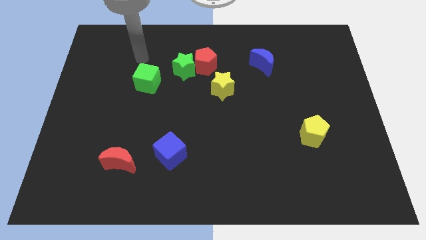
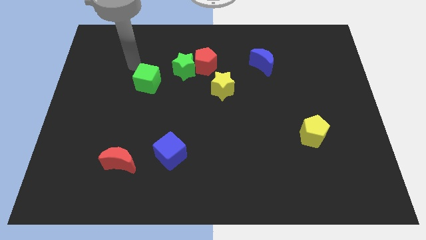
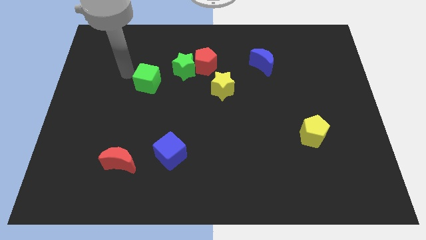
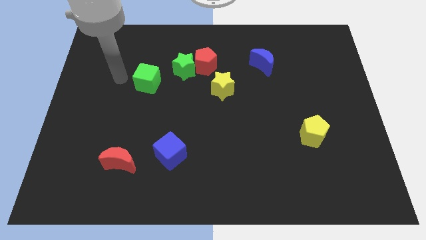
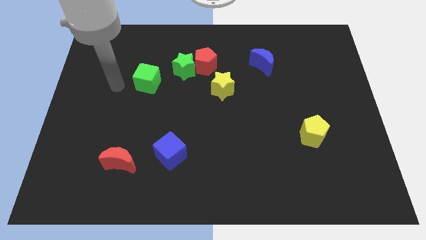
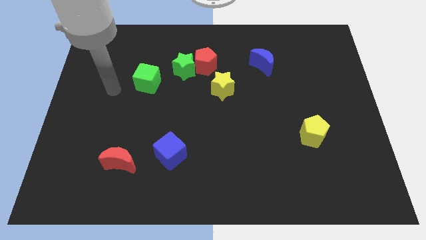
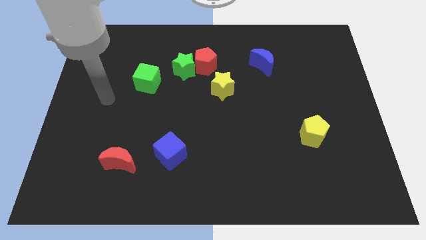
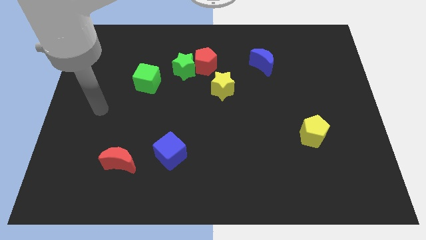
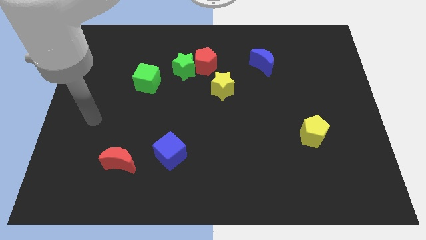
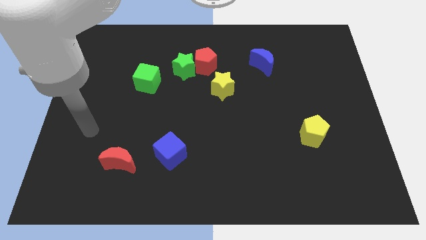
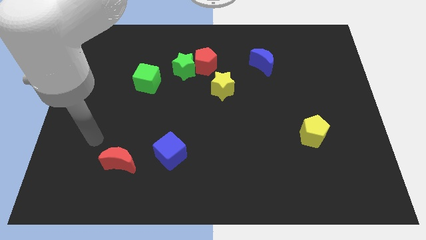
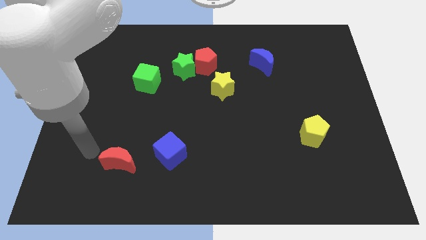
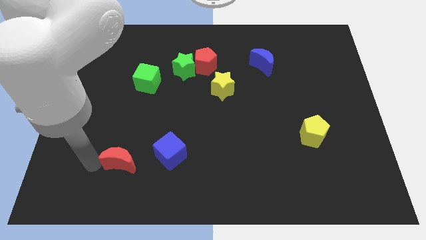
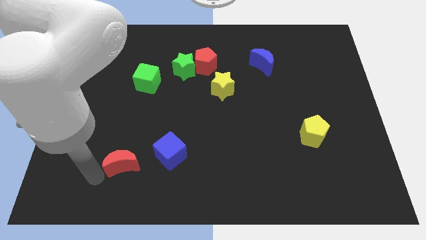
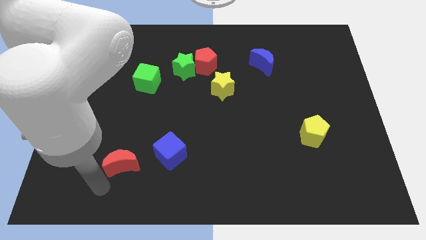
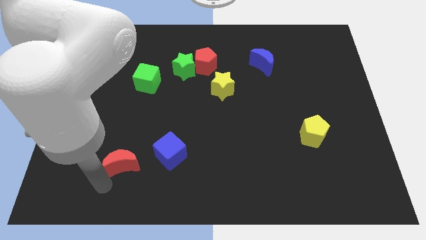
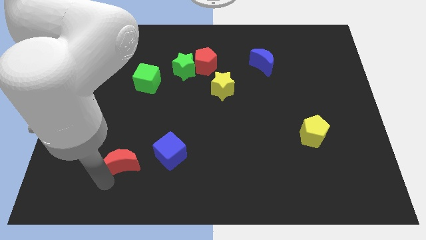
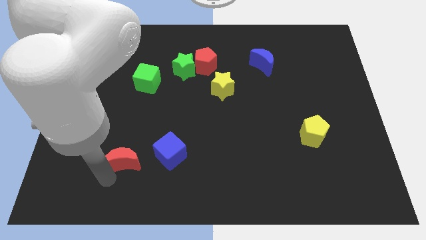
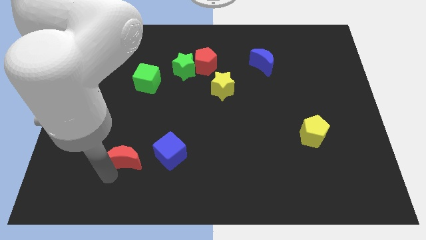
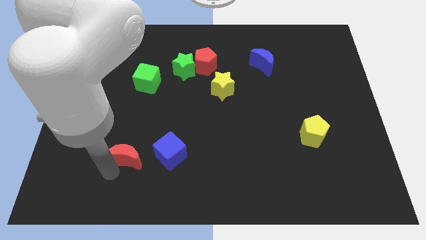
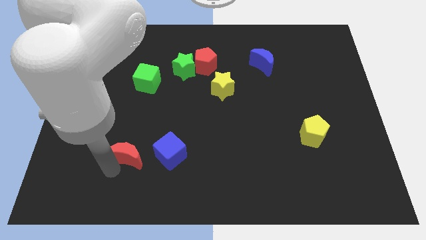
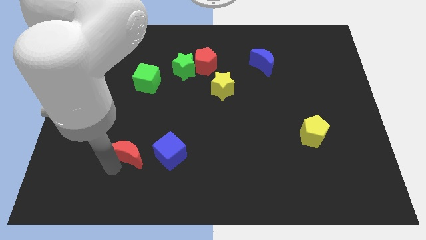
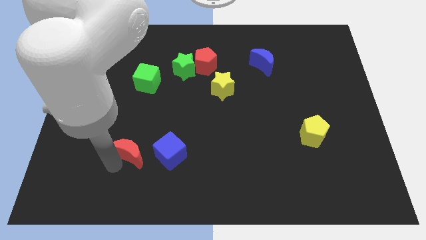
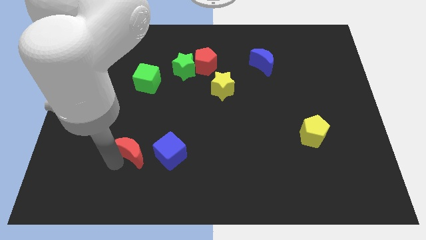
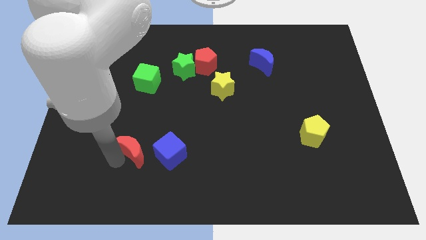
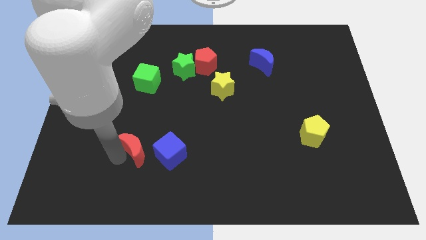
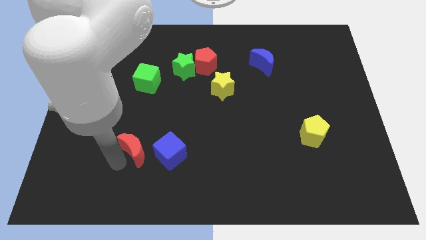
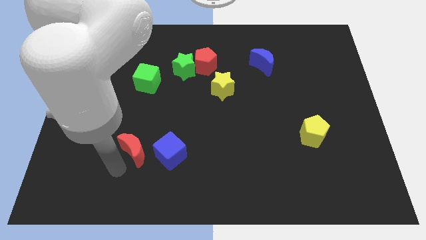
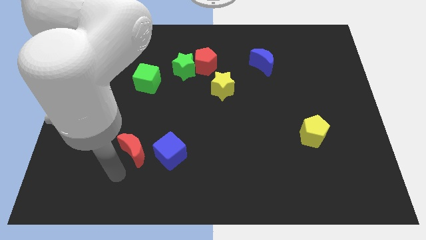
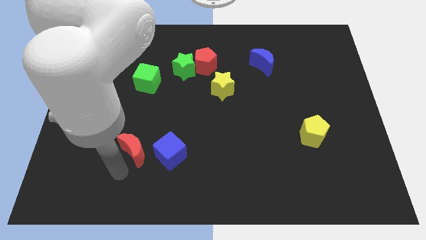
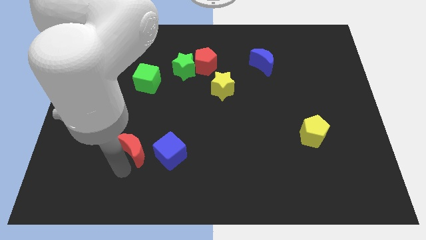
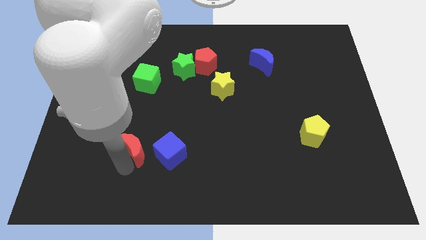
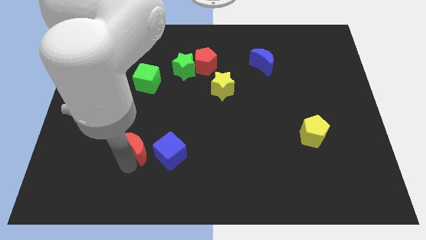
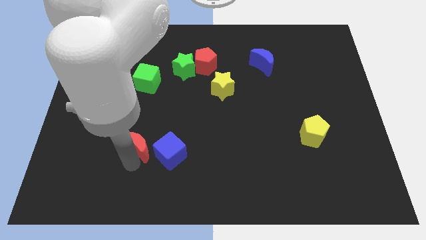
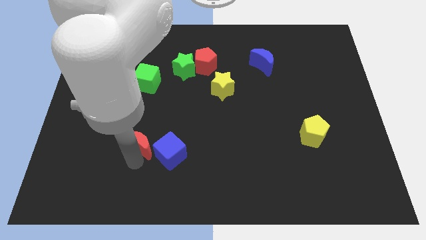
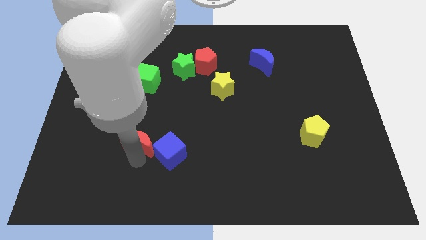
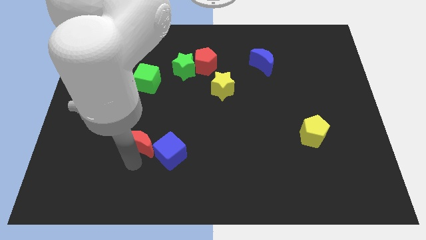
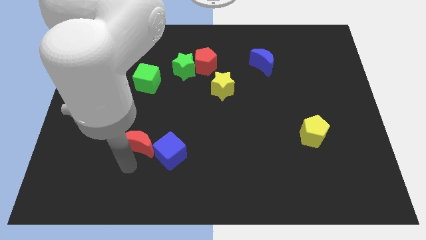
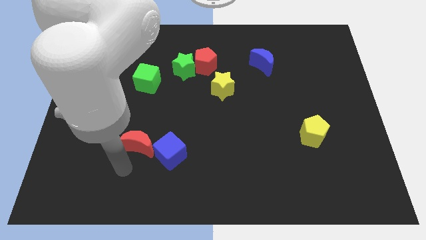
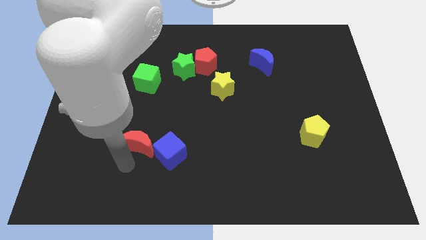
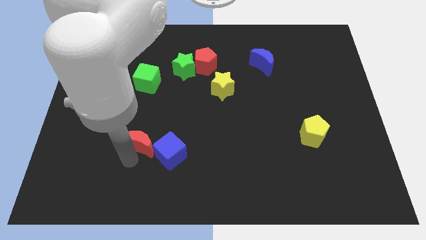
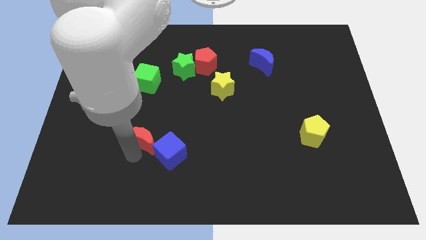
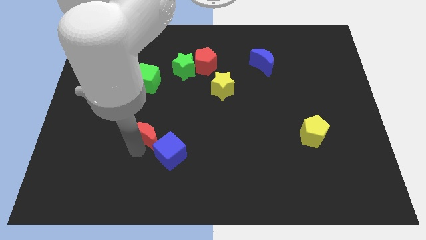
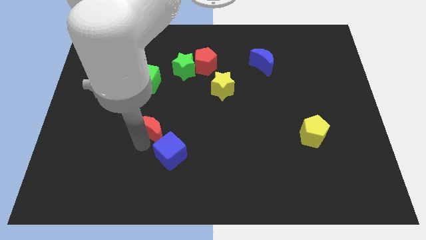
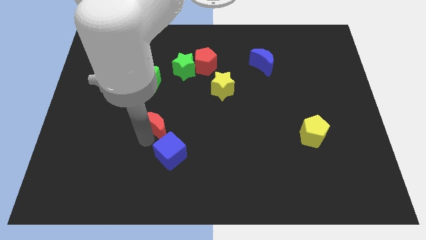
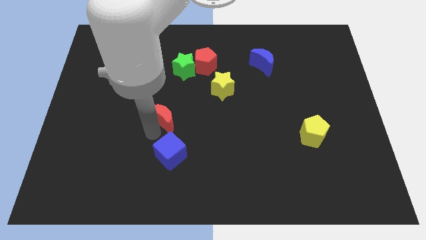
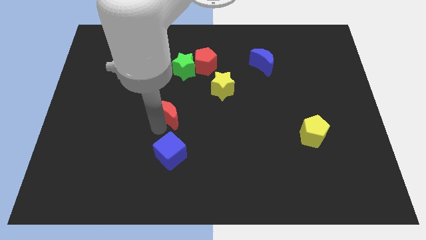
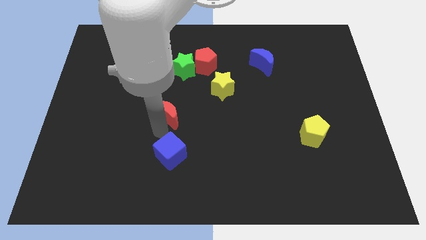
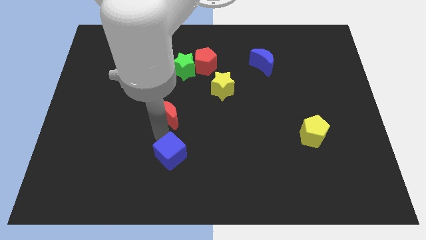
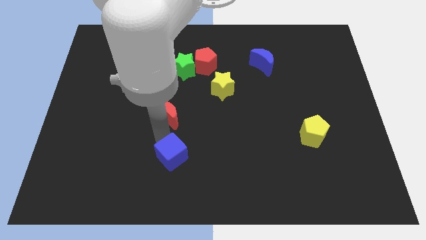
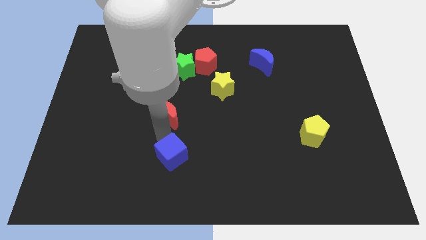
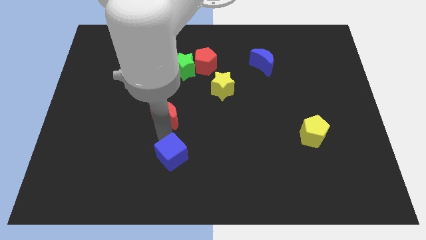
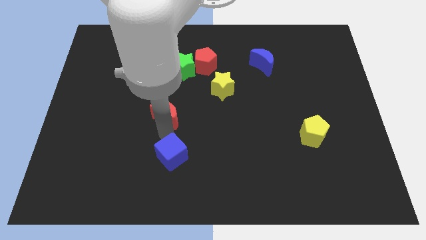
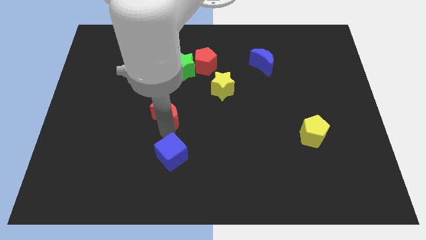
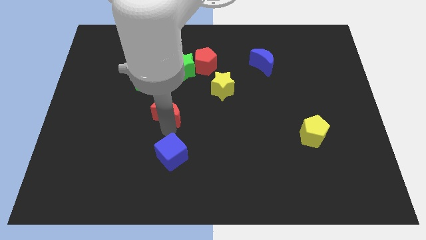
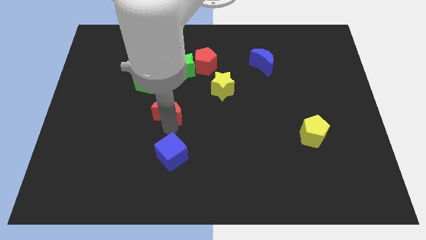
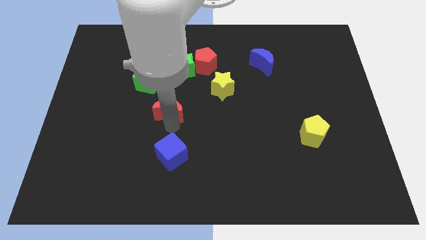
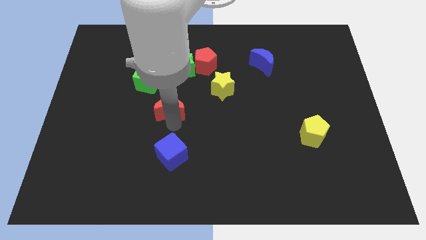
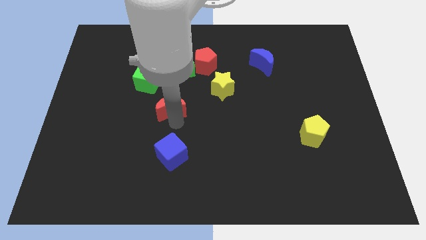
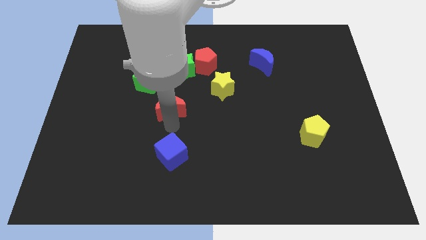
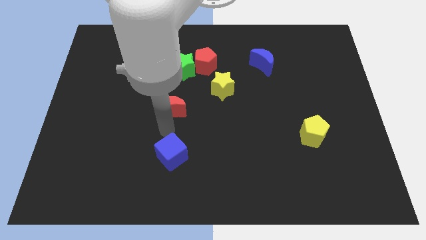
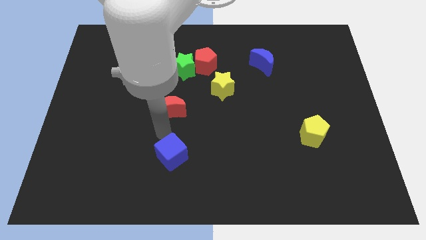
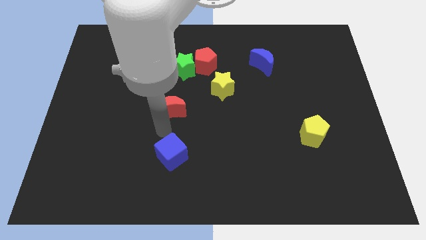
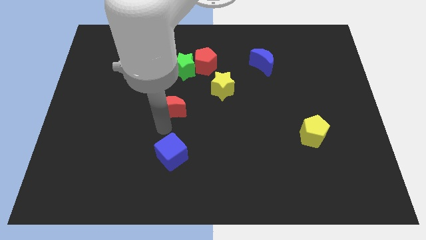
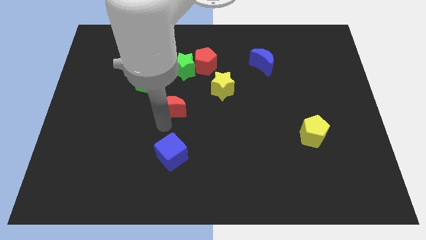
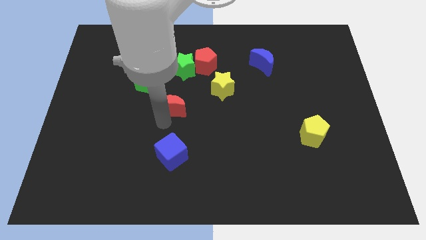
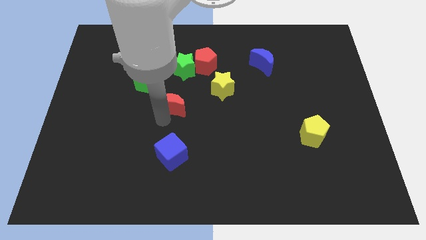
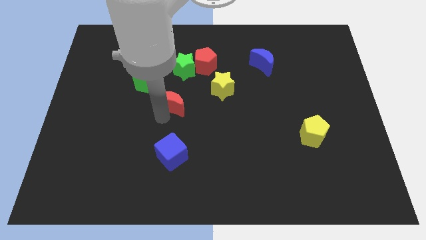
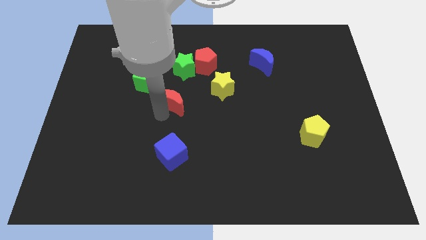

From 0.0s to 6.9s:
put the red moon to the left of the yellow star
